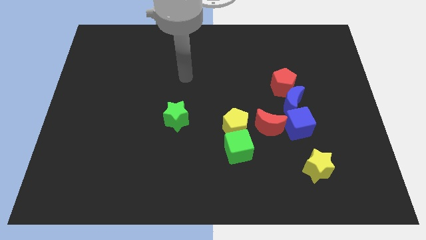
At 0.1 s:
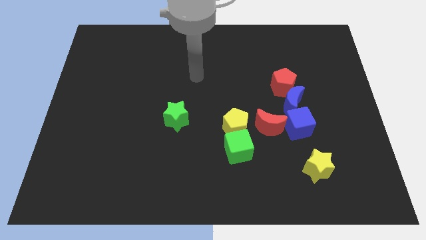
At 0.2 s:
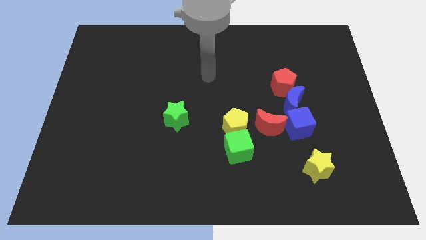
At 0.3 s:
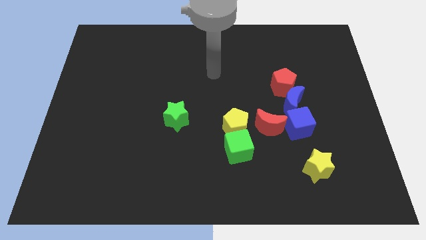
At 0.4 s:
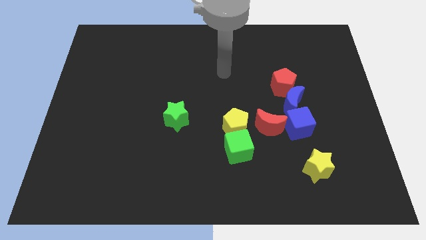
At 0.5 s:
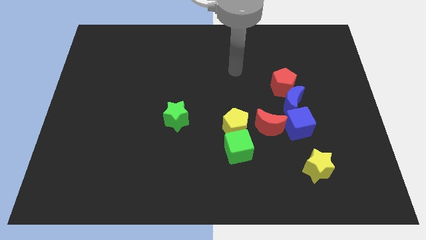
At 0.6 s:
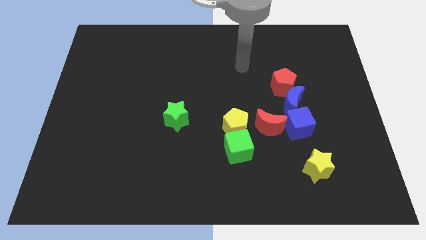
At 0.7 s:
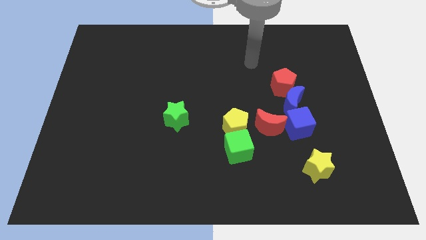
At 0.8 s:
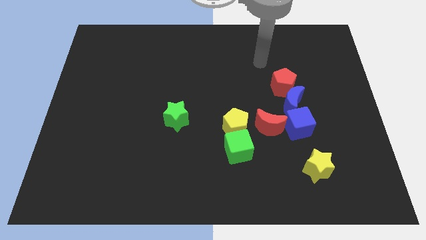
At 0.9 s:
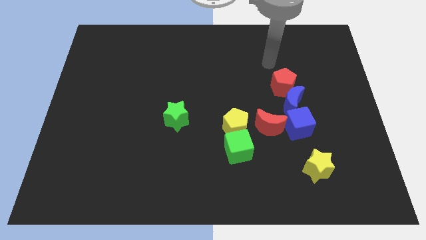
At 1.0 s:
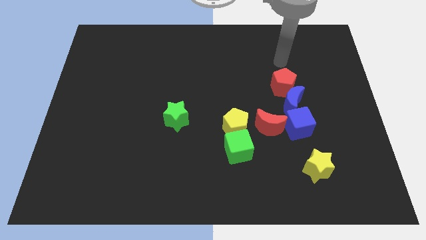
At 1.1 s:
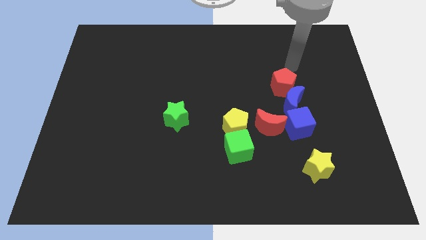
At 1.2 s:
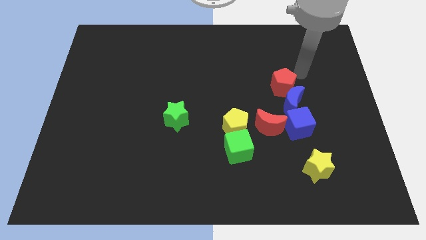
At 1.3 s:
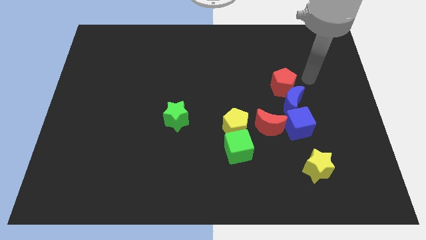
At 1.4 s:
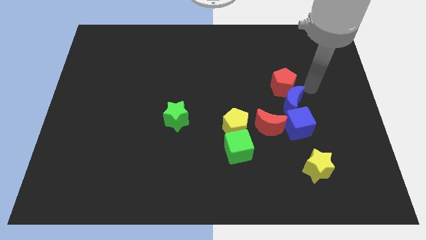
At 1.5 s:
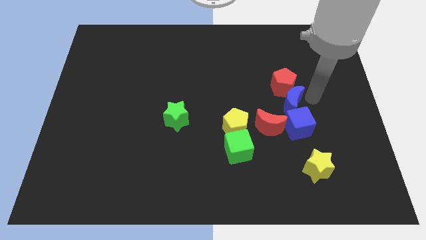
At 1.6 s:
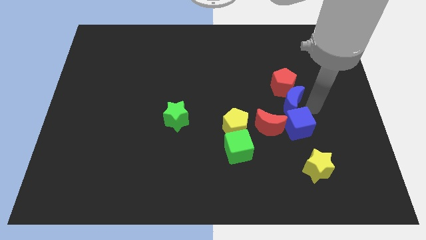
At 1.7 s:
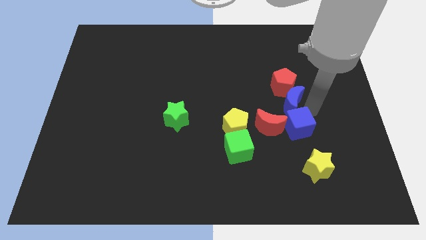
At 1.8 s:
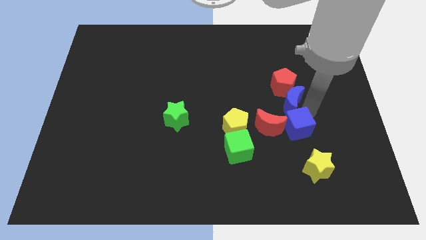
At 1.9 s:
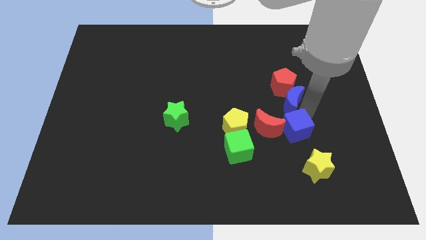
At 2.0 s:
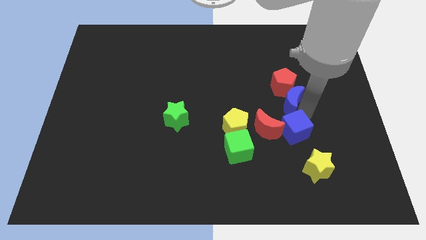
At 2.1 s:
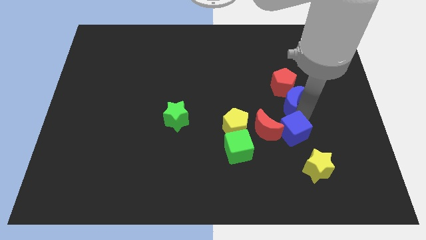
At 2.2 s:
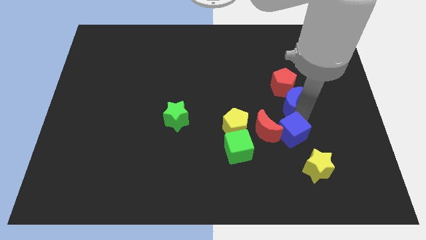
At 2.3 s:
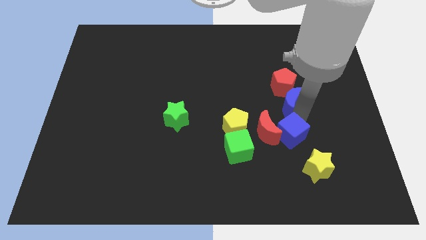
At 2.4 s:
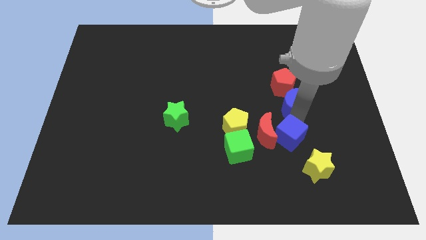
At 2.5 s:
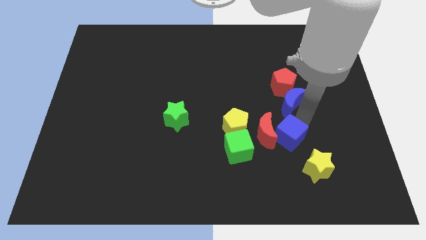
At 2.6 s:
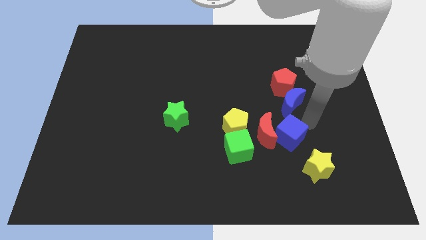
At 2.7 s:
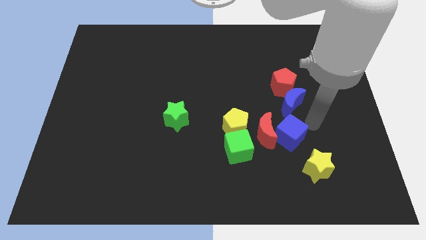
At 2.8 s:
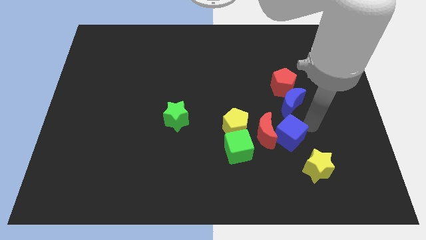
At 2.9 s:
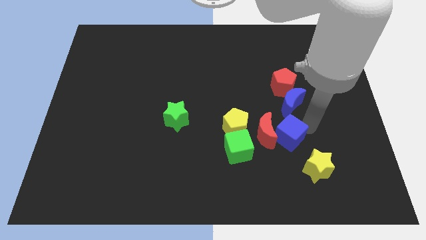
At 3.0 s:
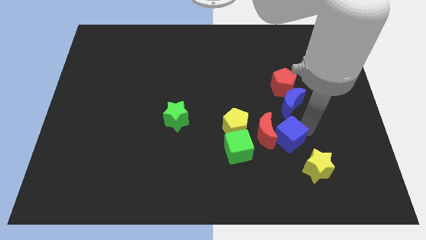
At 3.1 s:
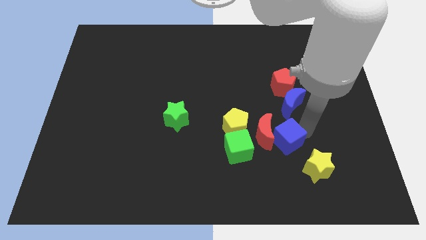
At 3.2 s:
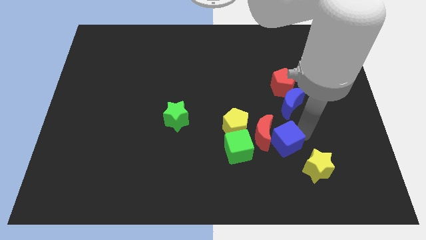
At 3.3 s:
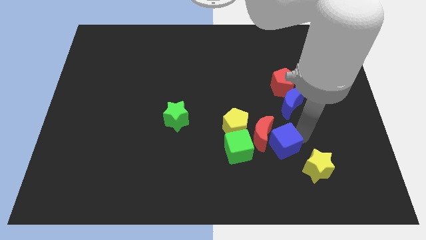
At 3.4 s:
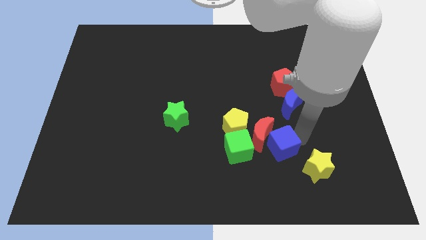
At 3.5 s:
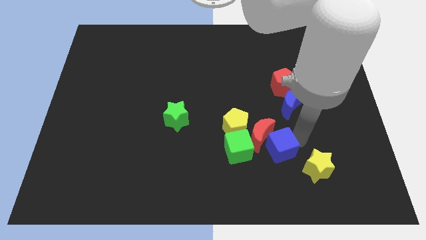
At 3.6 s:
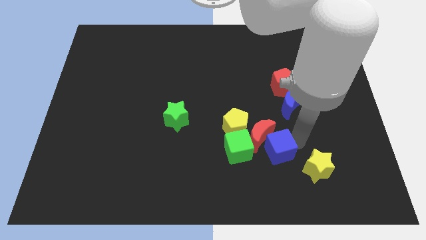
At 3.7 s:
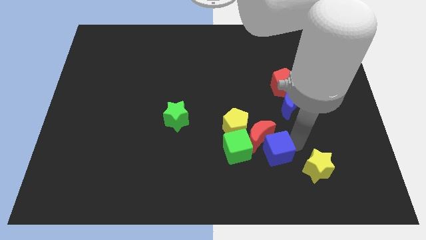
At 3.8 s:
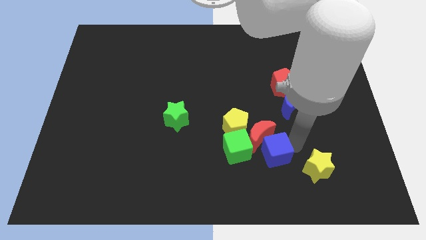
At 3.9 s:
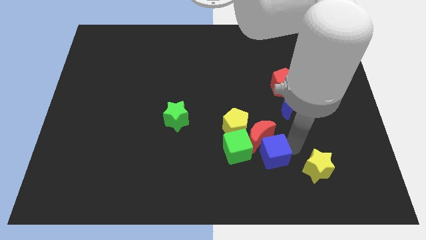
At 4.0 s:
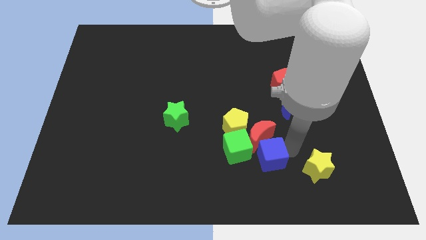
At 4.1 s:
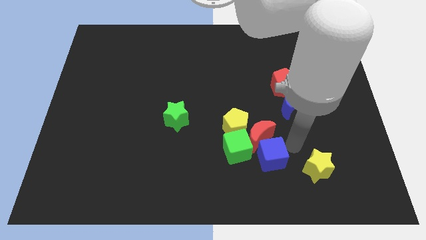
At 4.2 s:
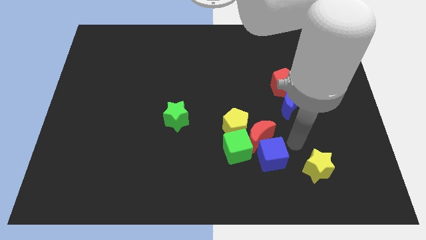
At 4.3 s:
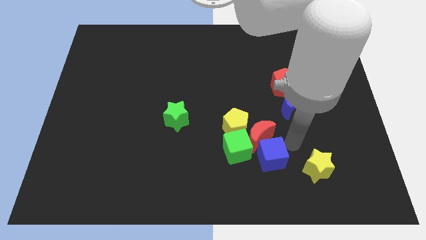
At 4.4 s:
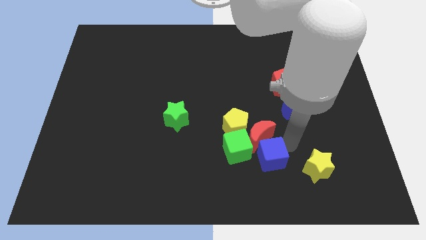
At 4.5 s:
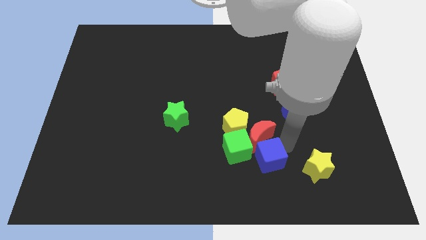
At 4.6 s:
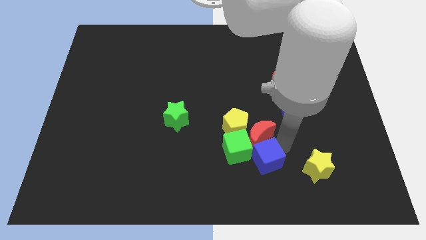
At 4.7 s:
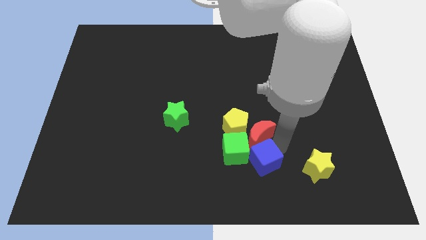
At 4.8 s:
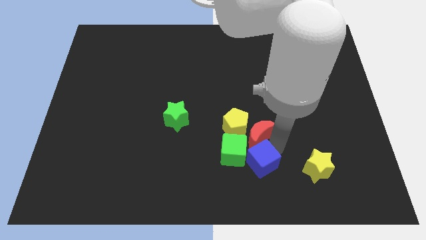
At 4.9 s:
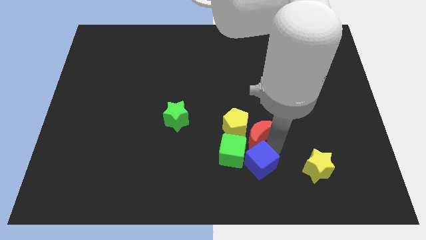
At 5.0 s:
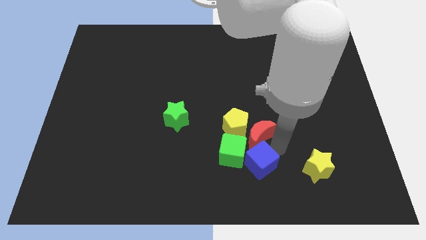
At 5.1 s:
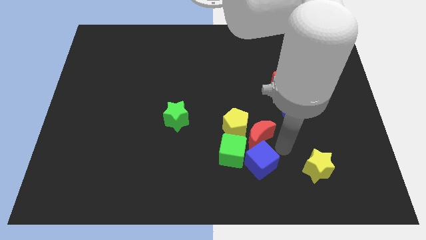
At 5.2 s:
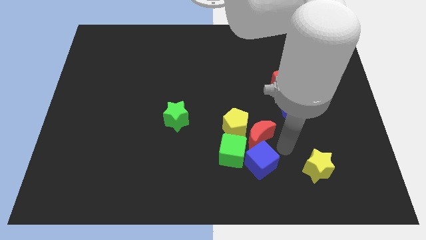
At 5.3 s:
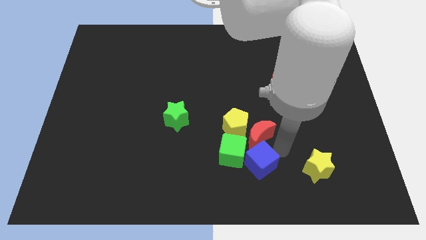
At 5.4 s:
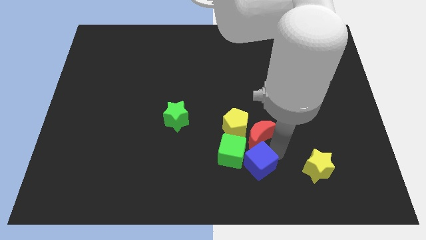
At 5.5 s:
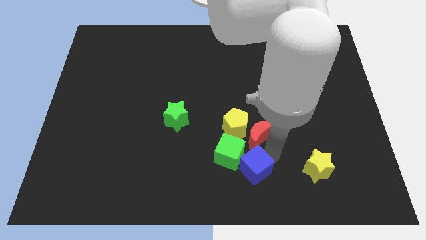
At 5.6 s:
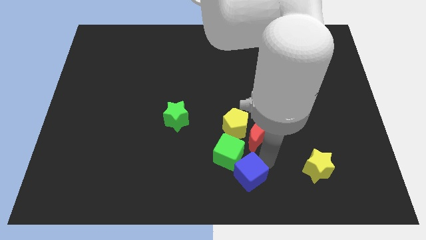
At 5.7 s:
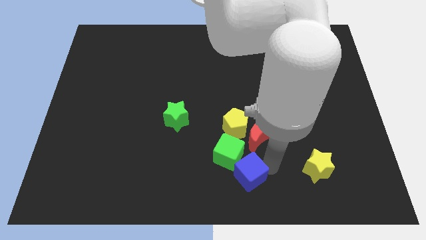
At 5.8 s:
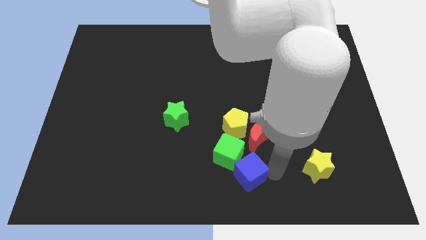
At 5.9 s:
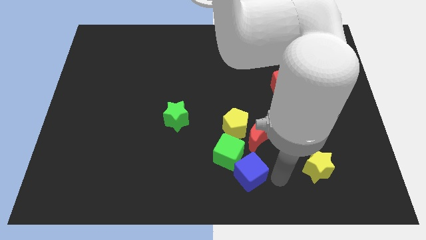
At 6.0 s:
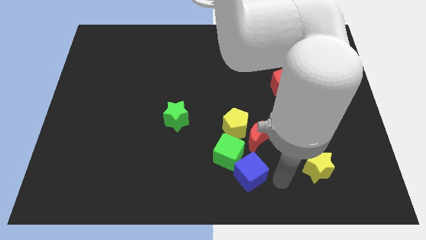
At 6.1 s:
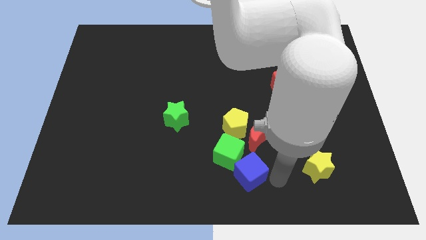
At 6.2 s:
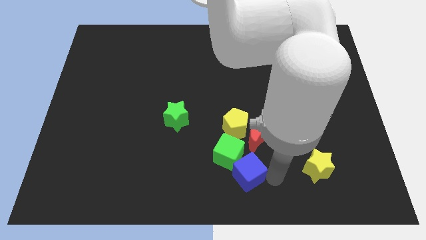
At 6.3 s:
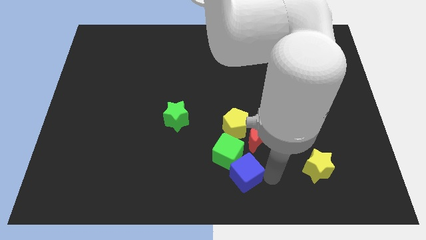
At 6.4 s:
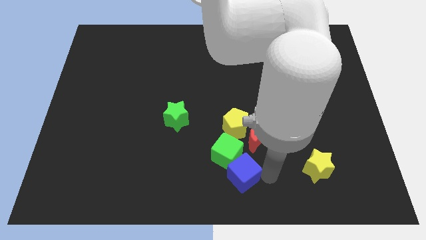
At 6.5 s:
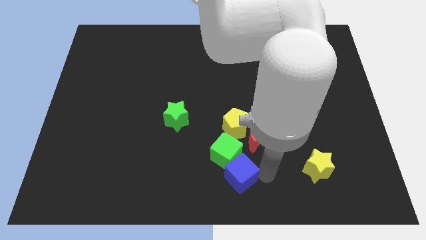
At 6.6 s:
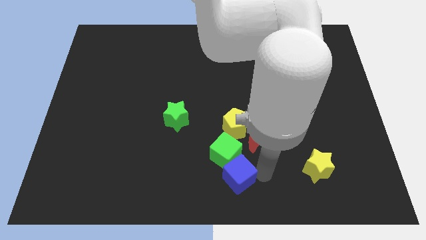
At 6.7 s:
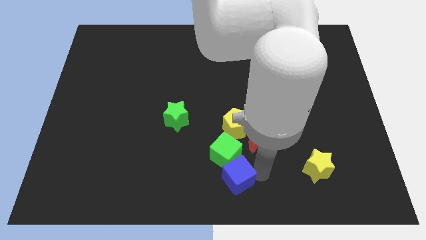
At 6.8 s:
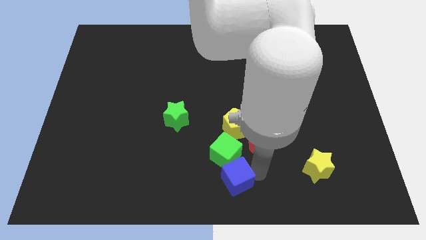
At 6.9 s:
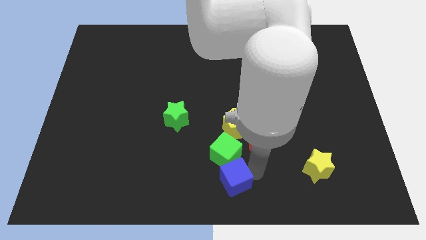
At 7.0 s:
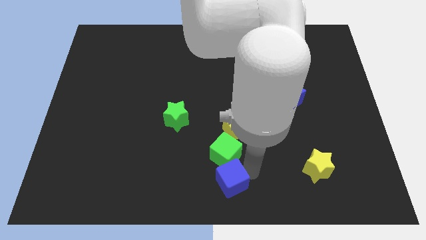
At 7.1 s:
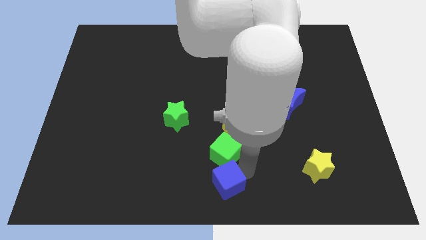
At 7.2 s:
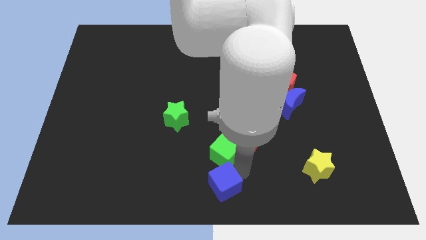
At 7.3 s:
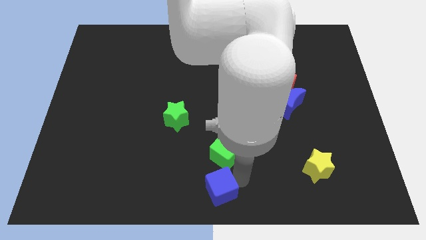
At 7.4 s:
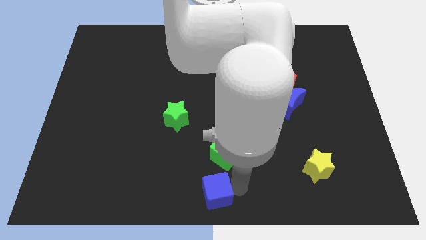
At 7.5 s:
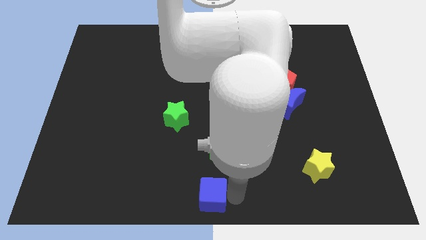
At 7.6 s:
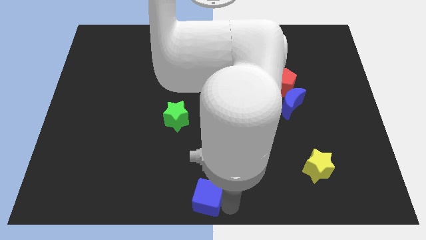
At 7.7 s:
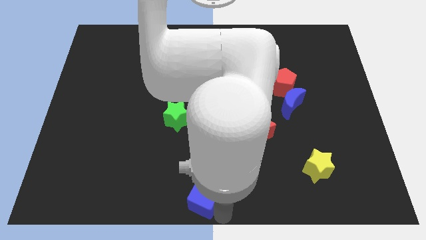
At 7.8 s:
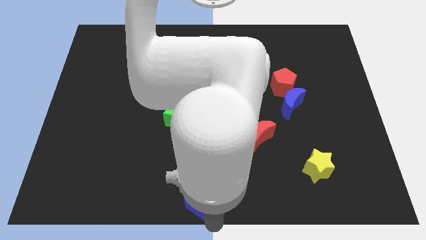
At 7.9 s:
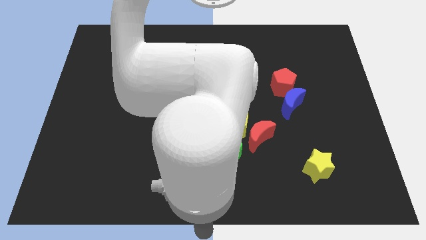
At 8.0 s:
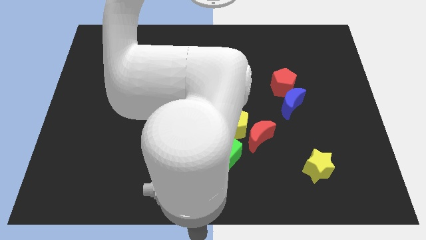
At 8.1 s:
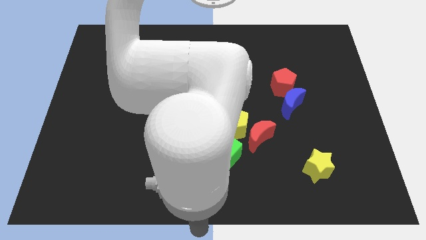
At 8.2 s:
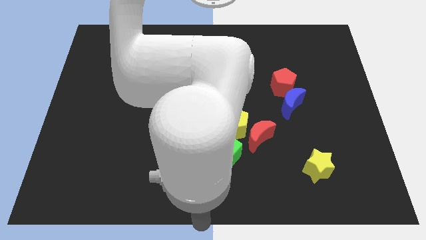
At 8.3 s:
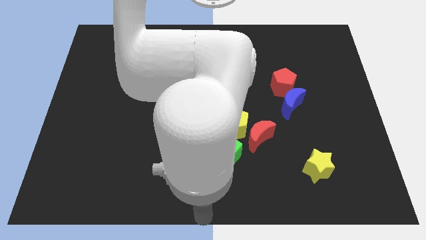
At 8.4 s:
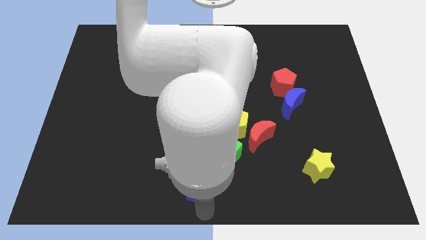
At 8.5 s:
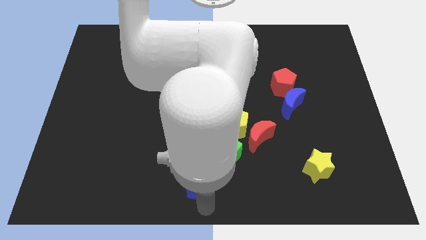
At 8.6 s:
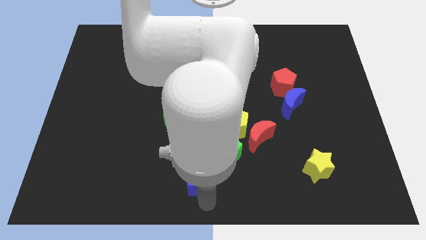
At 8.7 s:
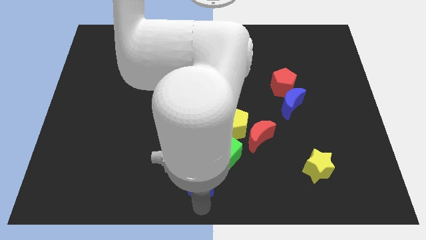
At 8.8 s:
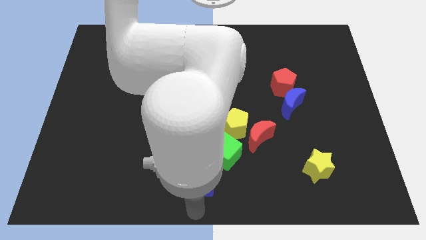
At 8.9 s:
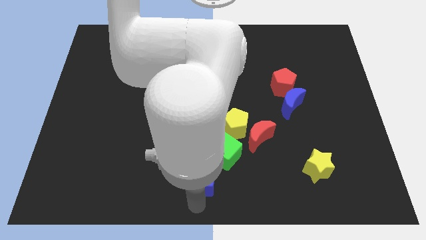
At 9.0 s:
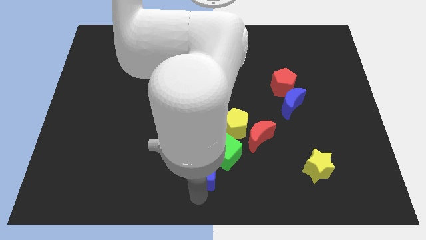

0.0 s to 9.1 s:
slightly slide the blue cube to the left
